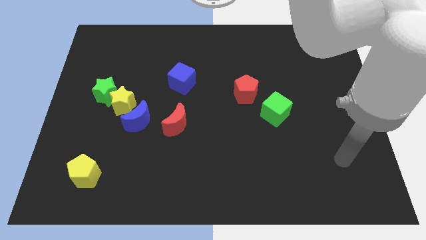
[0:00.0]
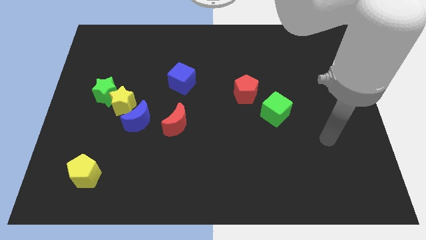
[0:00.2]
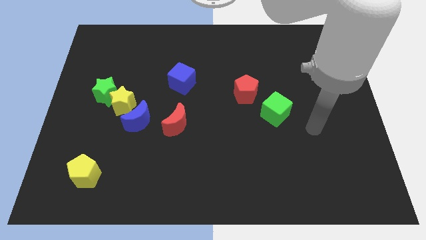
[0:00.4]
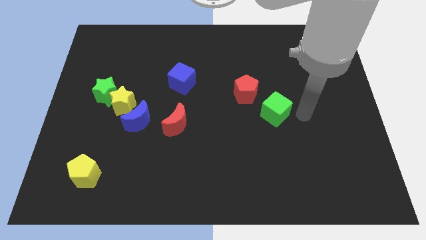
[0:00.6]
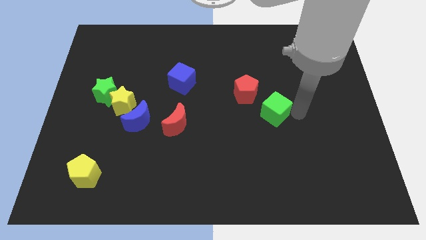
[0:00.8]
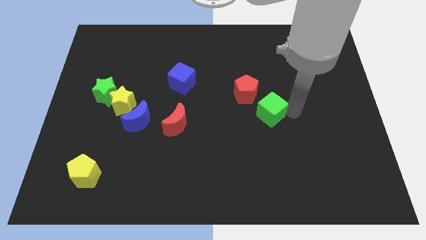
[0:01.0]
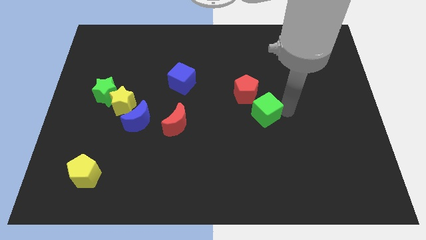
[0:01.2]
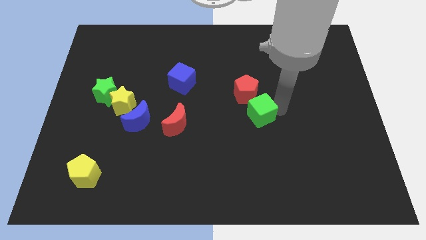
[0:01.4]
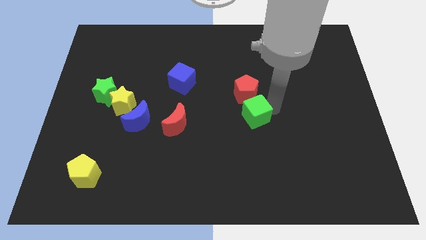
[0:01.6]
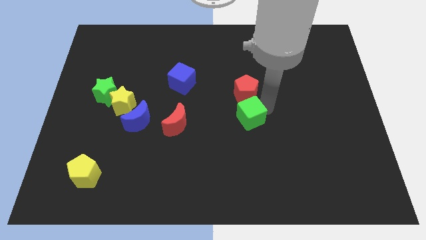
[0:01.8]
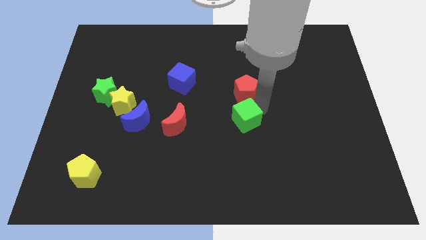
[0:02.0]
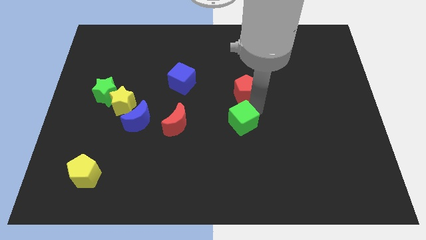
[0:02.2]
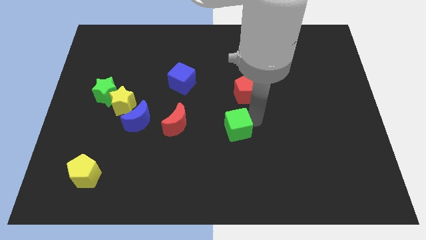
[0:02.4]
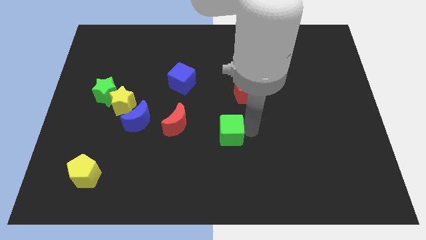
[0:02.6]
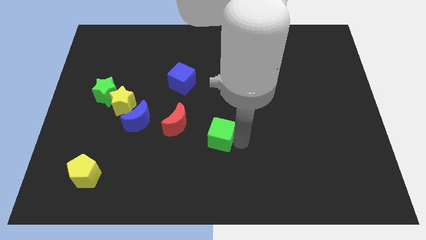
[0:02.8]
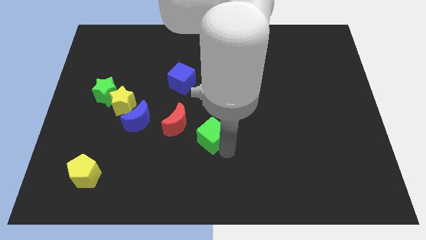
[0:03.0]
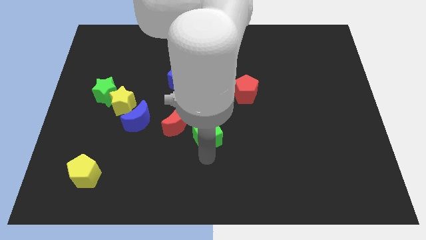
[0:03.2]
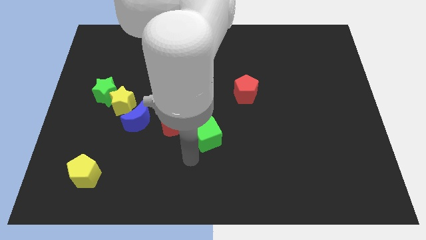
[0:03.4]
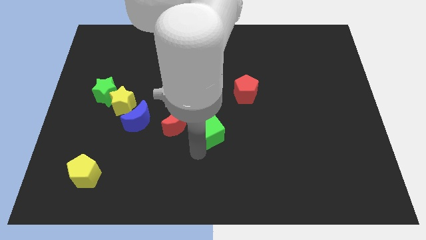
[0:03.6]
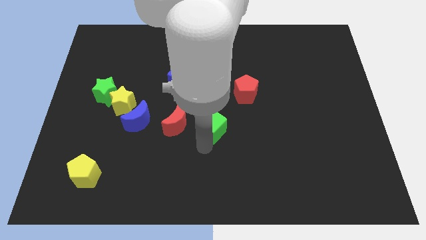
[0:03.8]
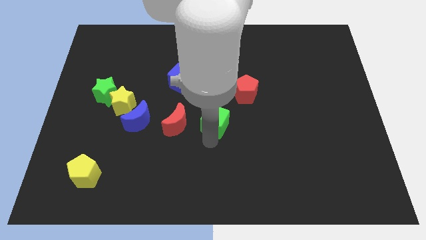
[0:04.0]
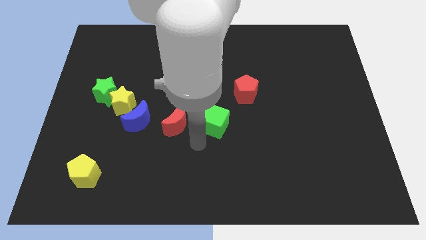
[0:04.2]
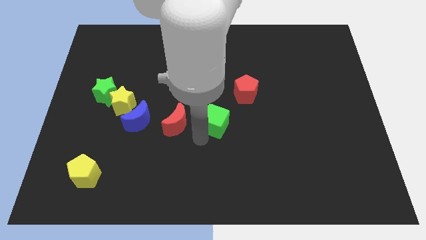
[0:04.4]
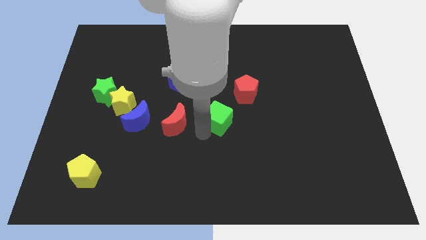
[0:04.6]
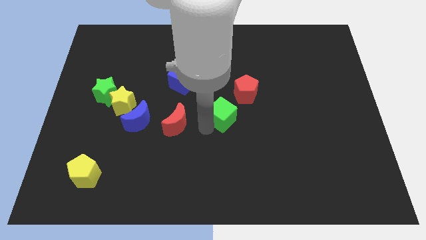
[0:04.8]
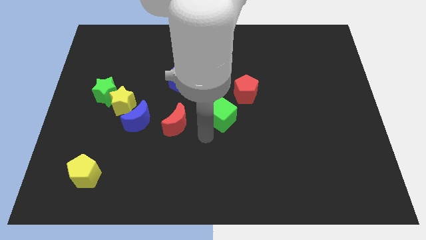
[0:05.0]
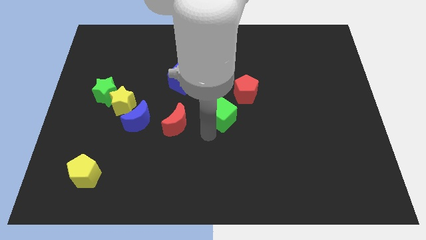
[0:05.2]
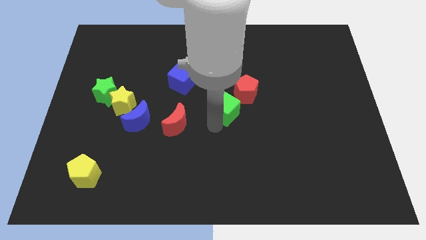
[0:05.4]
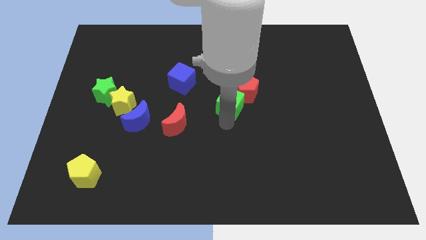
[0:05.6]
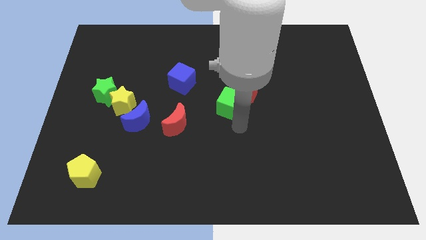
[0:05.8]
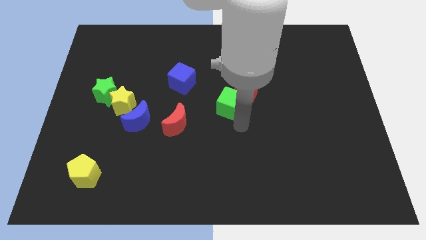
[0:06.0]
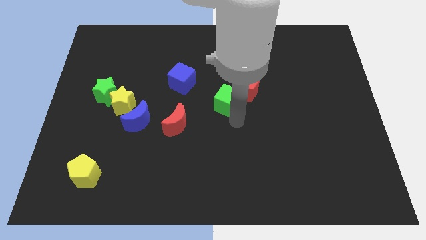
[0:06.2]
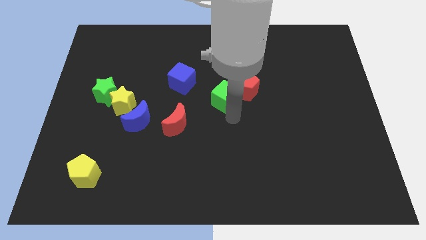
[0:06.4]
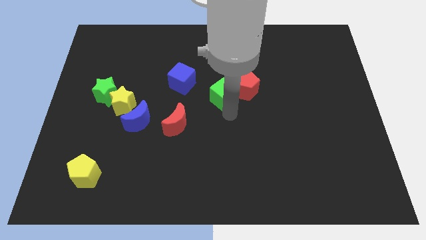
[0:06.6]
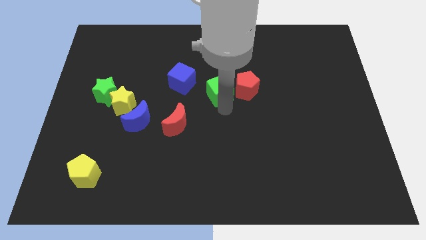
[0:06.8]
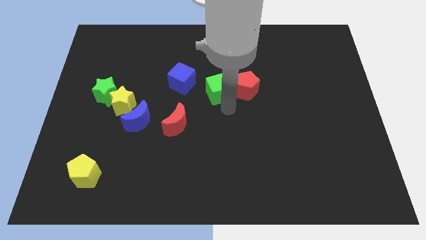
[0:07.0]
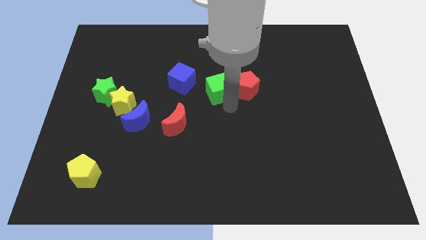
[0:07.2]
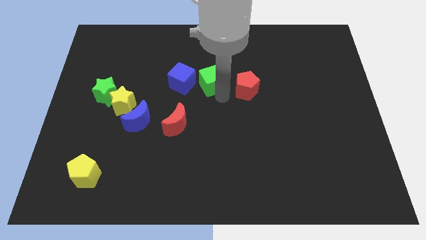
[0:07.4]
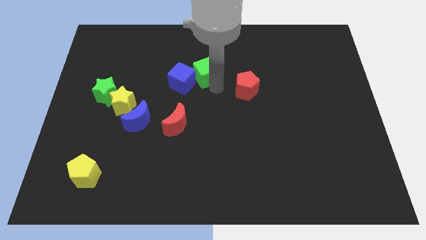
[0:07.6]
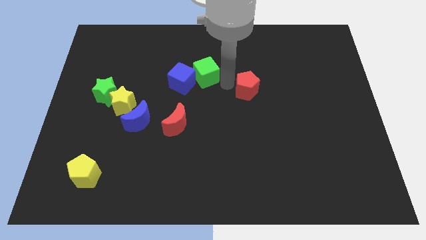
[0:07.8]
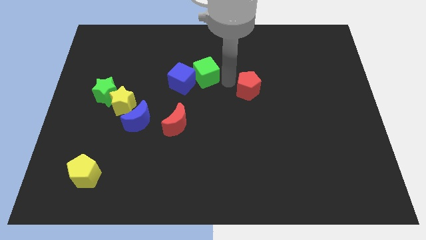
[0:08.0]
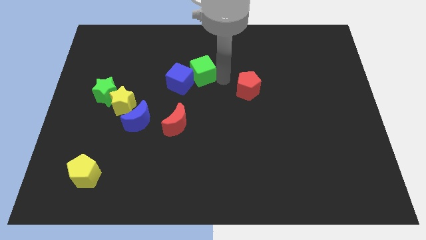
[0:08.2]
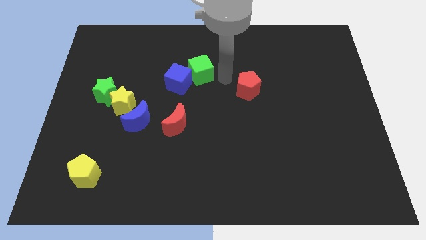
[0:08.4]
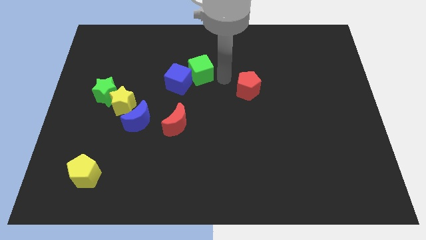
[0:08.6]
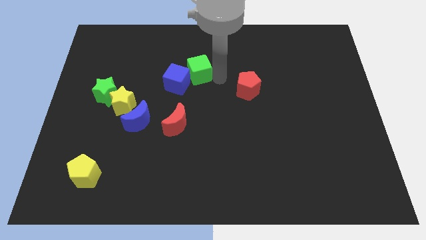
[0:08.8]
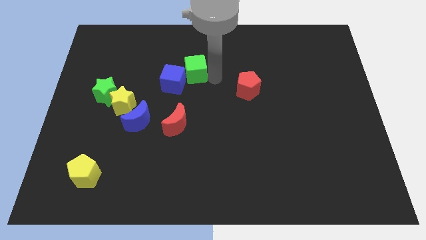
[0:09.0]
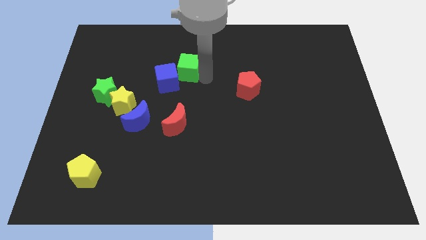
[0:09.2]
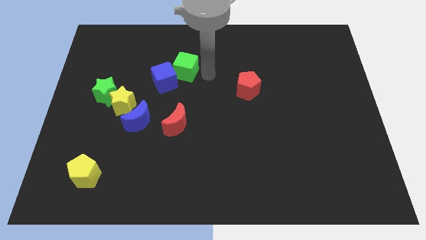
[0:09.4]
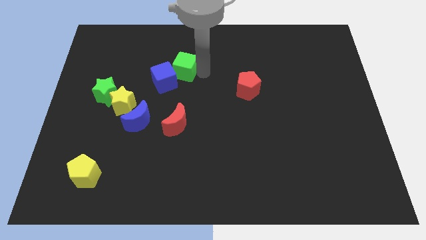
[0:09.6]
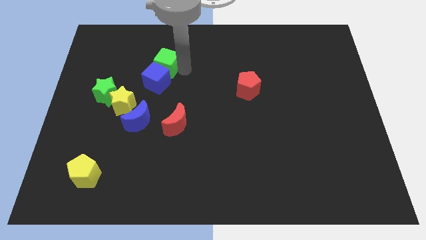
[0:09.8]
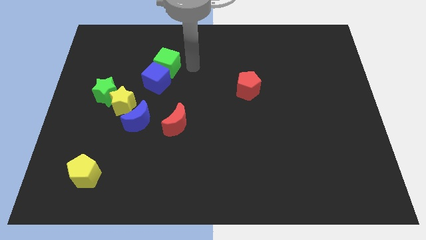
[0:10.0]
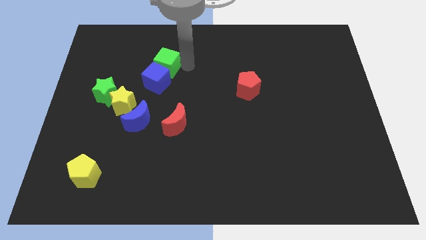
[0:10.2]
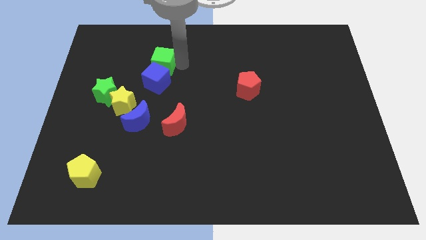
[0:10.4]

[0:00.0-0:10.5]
slide the green cube to the top left of the blue cube

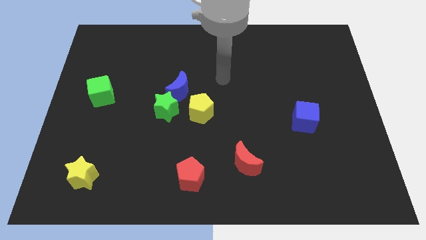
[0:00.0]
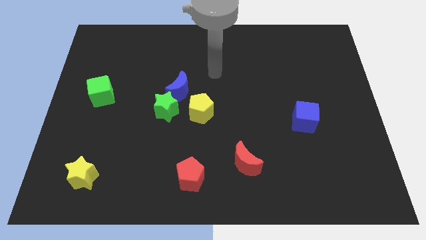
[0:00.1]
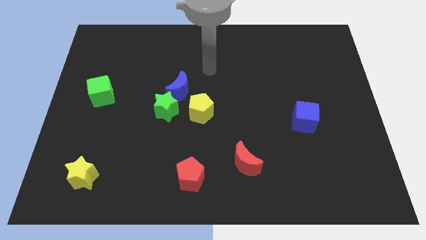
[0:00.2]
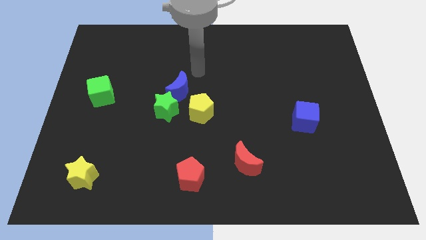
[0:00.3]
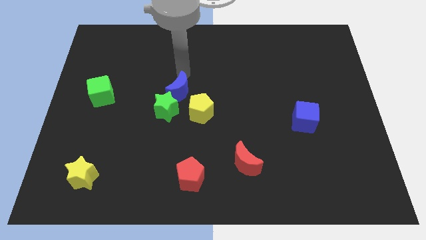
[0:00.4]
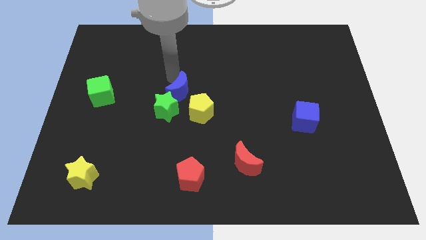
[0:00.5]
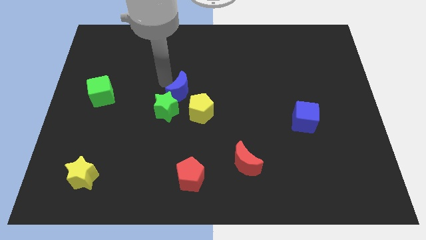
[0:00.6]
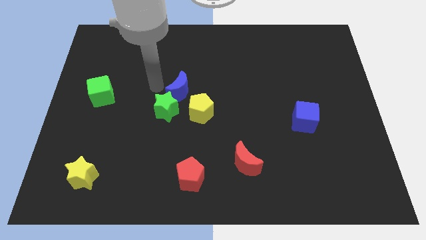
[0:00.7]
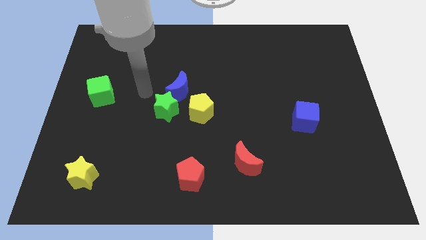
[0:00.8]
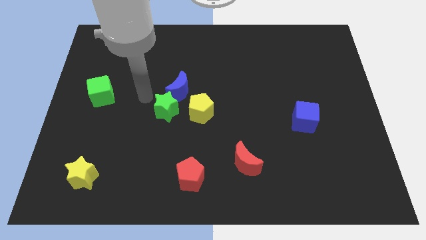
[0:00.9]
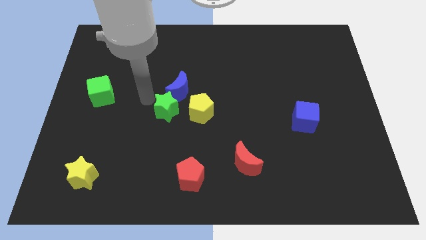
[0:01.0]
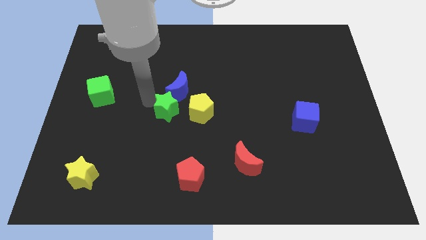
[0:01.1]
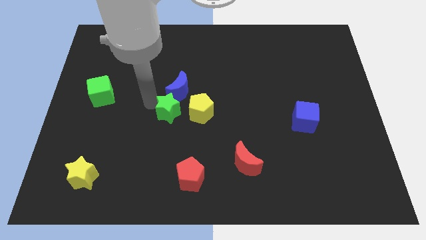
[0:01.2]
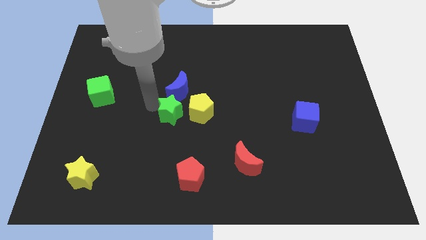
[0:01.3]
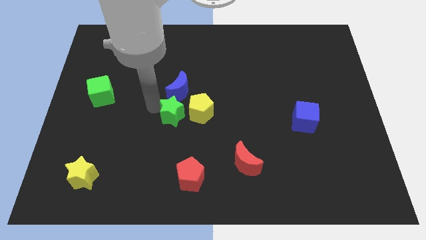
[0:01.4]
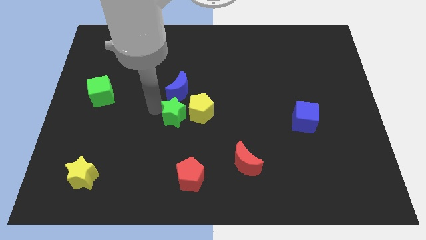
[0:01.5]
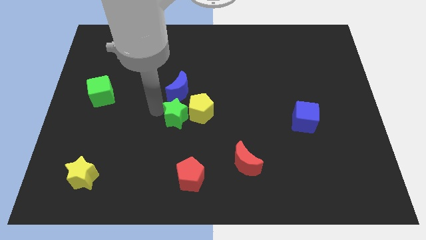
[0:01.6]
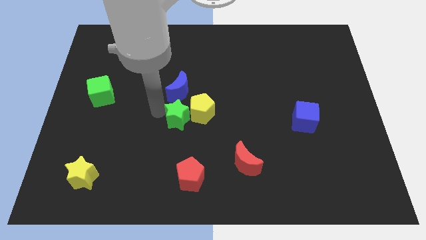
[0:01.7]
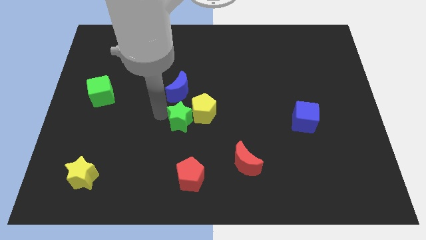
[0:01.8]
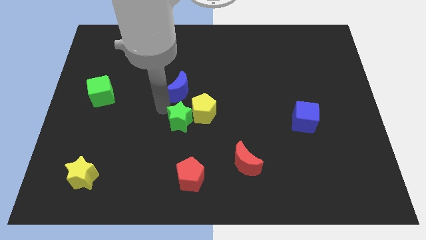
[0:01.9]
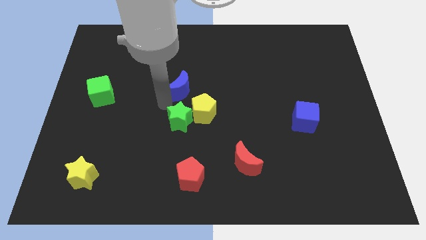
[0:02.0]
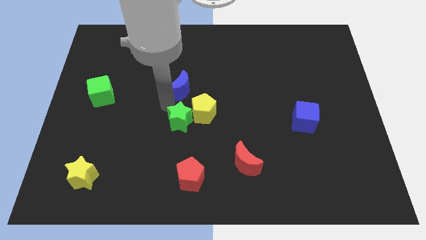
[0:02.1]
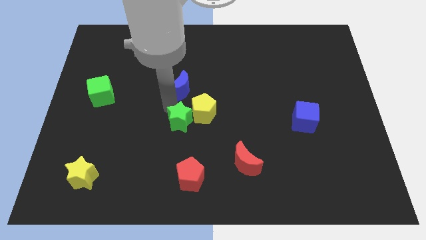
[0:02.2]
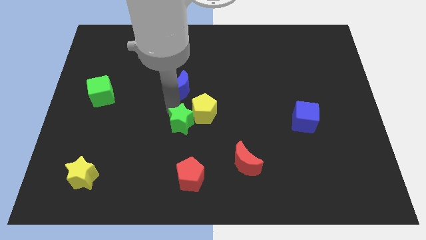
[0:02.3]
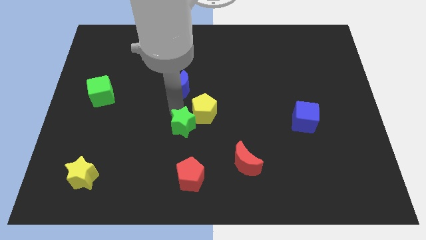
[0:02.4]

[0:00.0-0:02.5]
move the green star to the bottom side of the yellow pentagon
